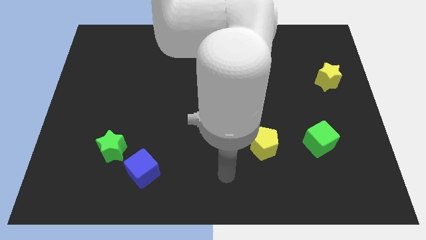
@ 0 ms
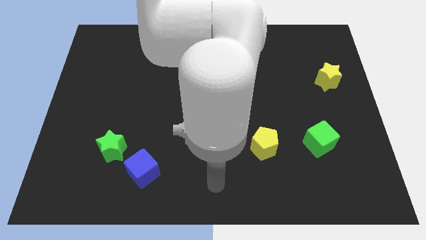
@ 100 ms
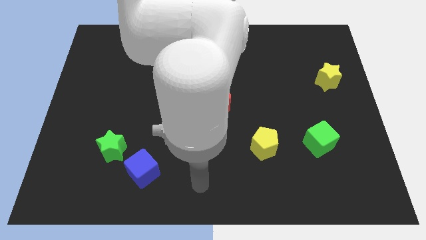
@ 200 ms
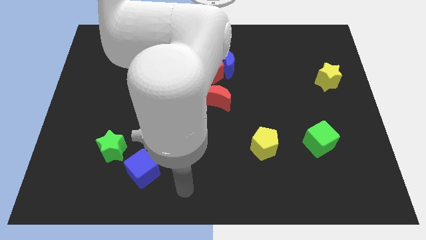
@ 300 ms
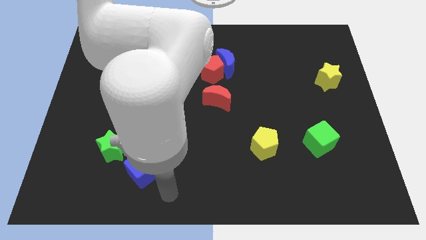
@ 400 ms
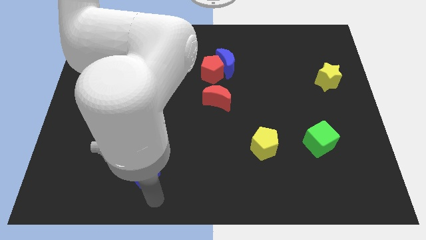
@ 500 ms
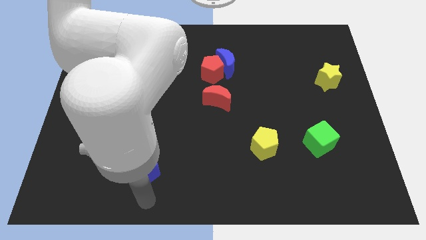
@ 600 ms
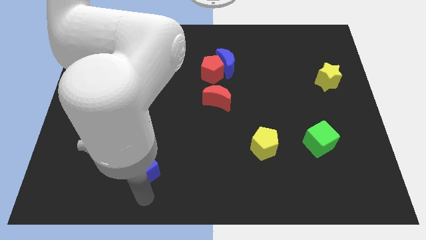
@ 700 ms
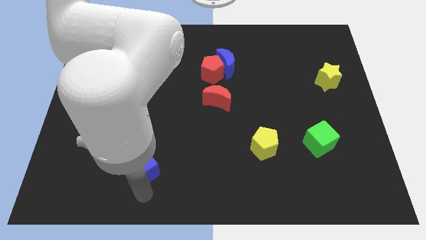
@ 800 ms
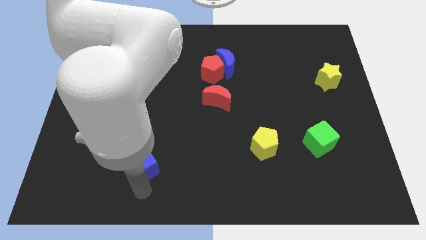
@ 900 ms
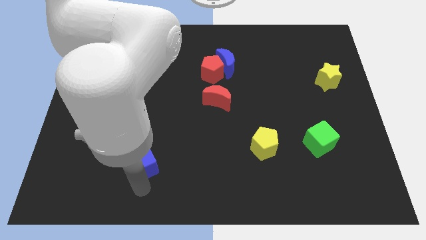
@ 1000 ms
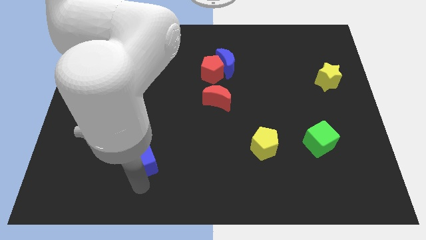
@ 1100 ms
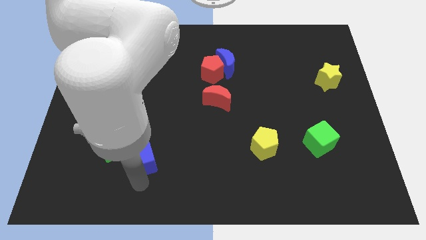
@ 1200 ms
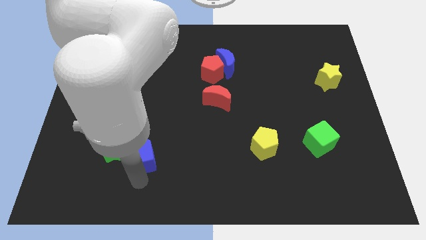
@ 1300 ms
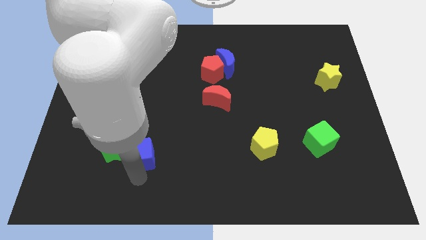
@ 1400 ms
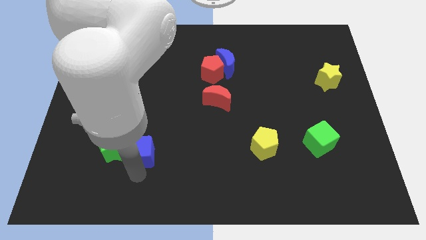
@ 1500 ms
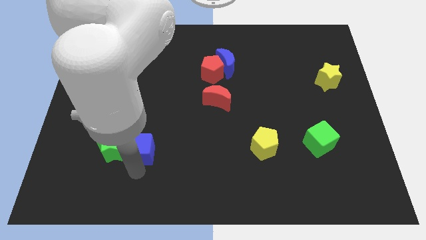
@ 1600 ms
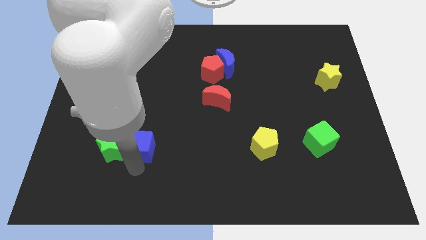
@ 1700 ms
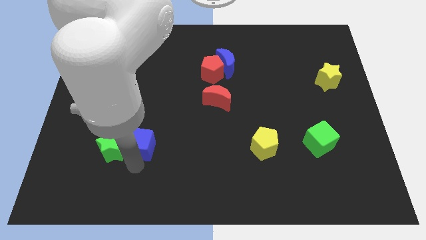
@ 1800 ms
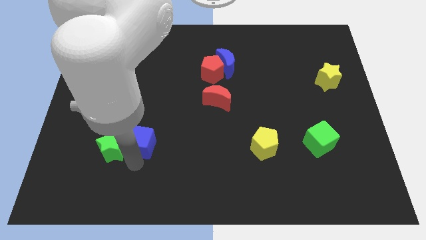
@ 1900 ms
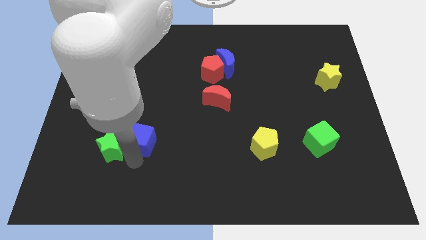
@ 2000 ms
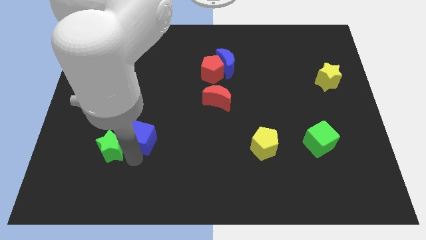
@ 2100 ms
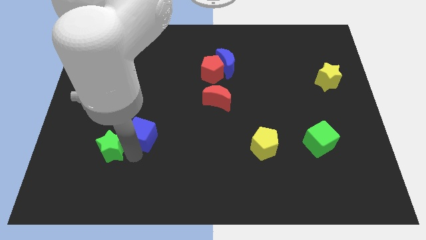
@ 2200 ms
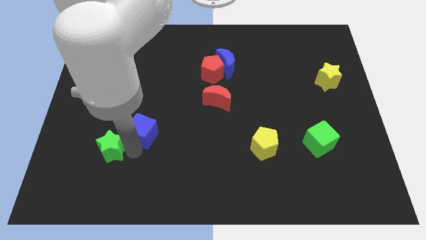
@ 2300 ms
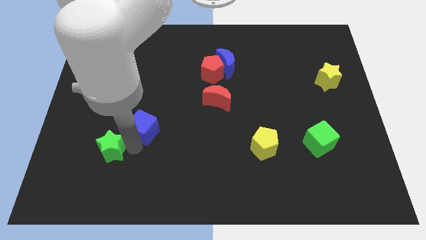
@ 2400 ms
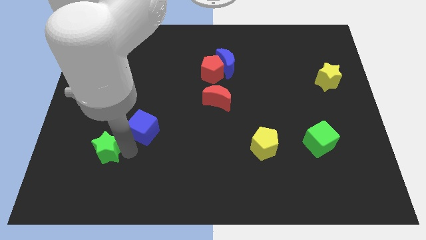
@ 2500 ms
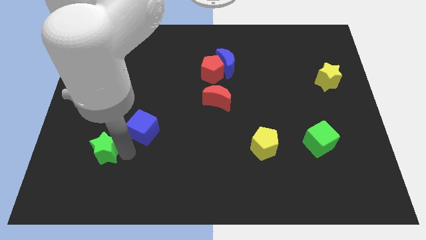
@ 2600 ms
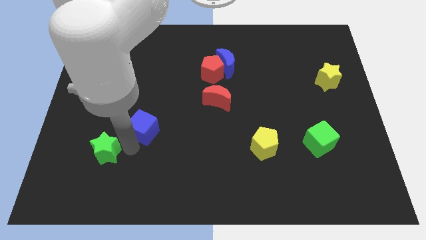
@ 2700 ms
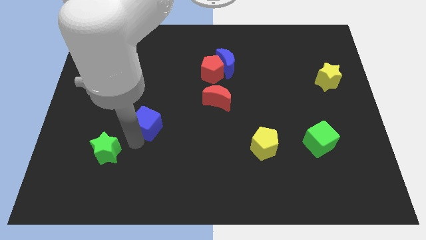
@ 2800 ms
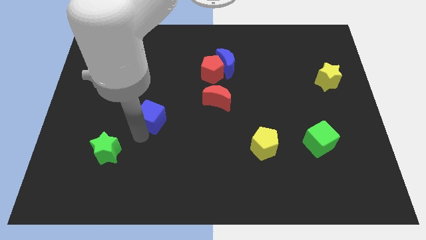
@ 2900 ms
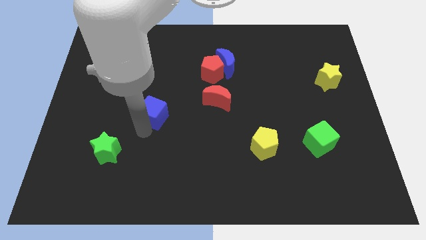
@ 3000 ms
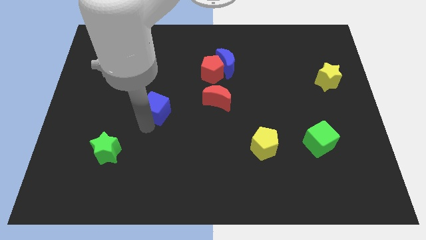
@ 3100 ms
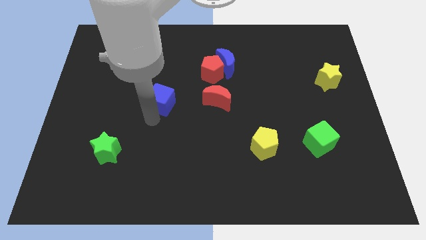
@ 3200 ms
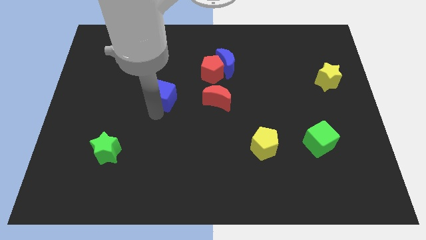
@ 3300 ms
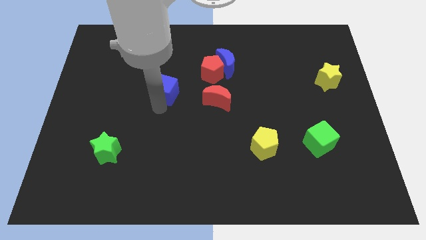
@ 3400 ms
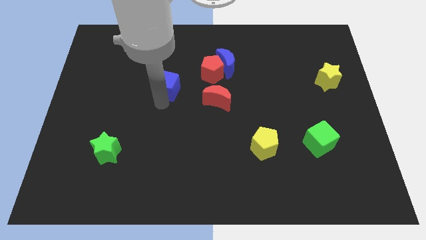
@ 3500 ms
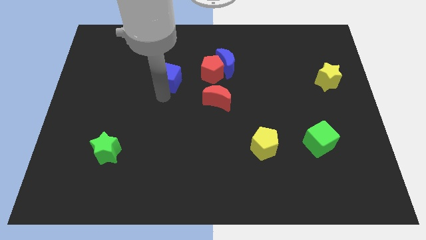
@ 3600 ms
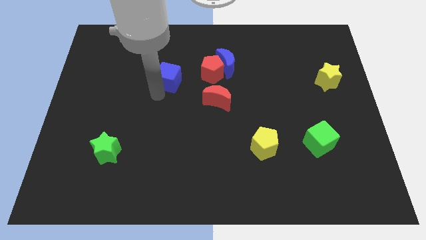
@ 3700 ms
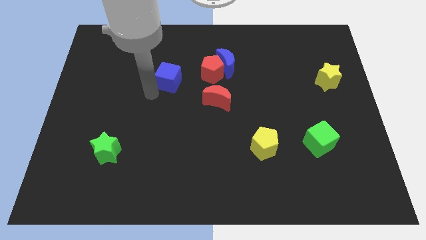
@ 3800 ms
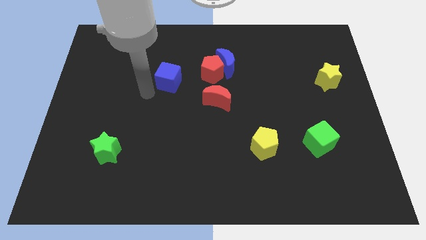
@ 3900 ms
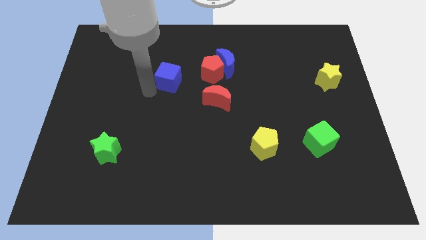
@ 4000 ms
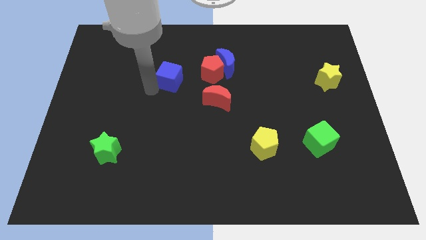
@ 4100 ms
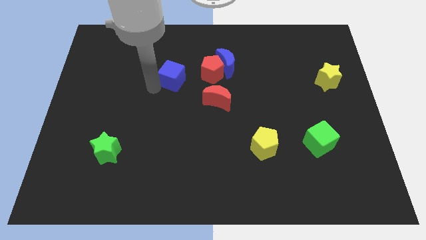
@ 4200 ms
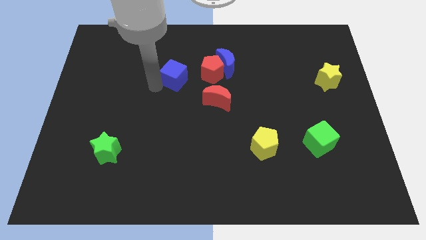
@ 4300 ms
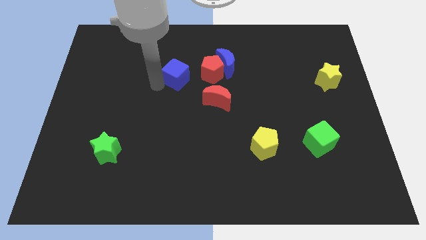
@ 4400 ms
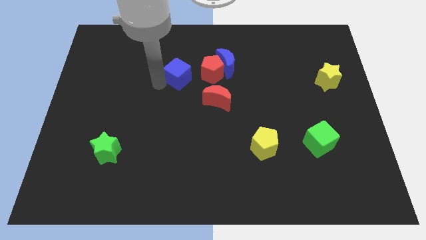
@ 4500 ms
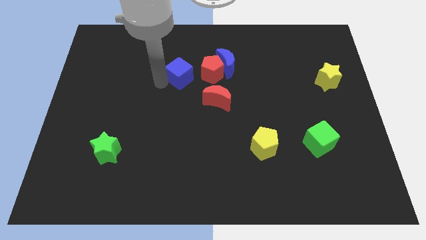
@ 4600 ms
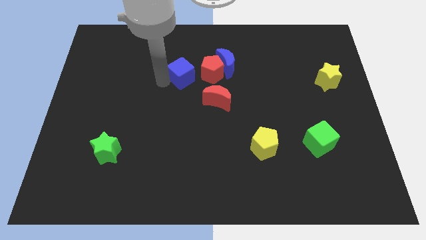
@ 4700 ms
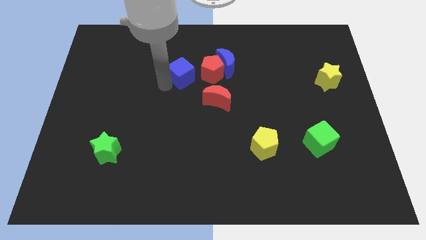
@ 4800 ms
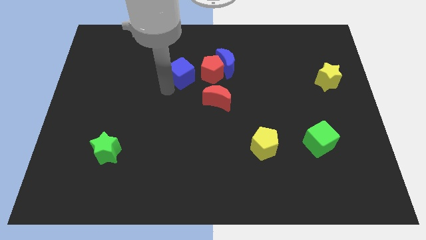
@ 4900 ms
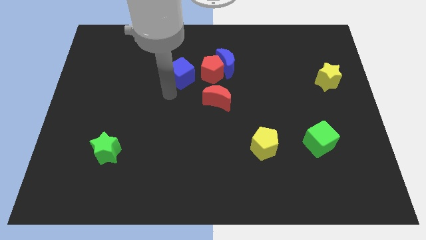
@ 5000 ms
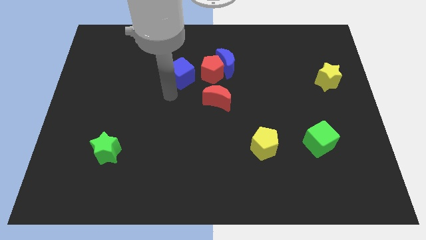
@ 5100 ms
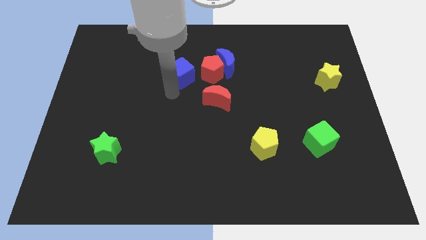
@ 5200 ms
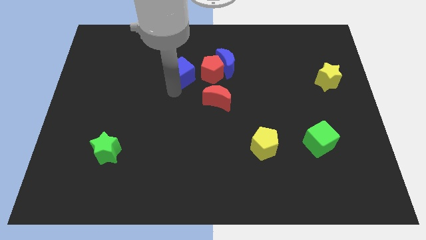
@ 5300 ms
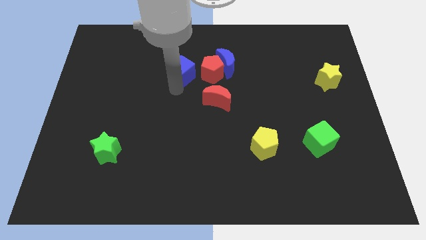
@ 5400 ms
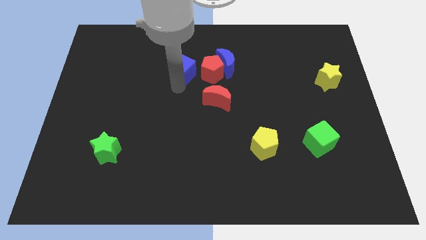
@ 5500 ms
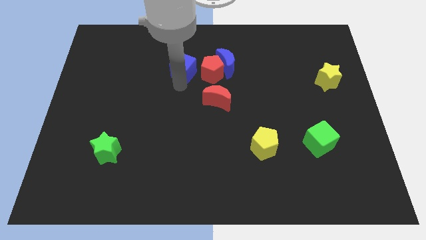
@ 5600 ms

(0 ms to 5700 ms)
push the blue cube to the top left side of the red pentagon

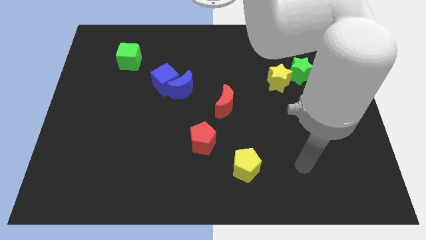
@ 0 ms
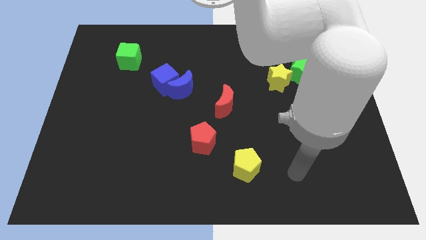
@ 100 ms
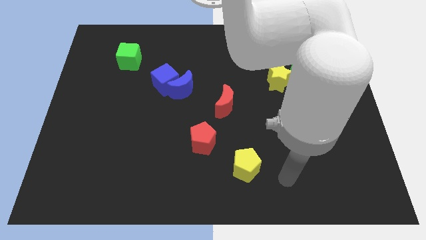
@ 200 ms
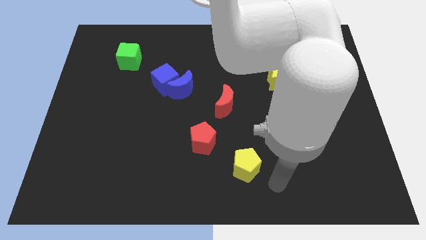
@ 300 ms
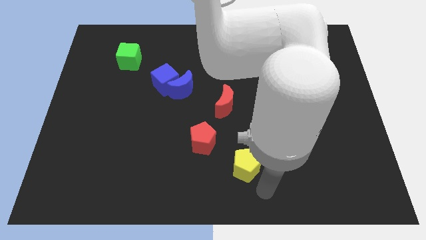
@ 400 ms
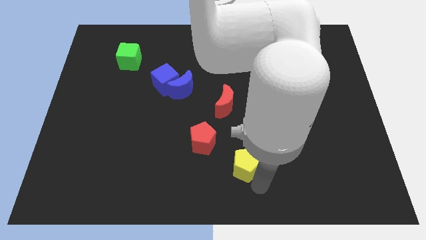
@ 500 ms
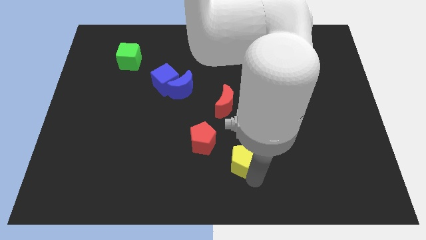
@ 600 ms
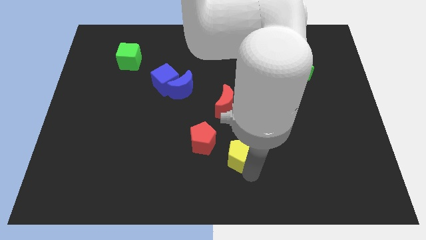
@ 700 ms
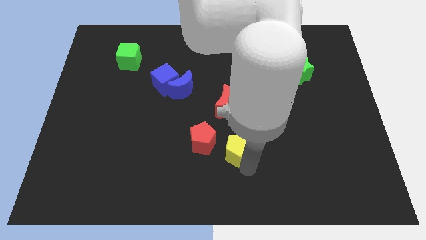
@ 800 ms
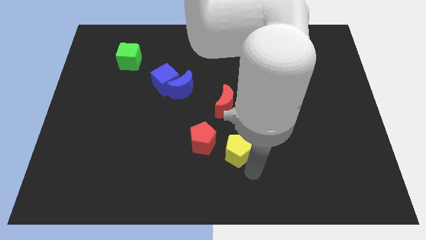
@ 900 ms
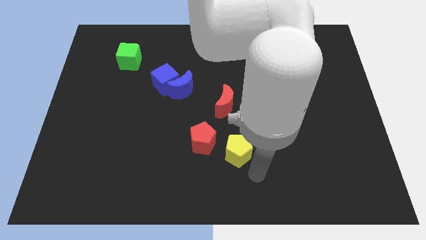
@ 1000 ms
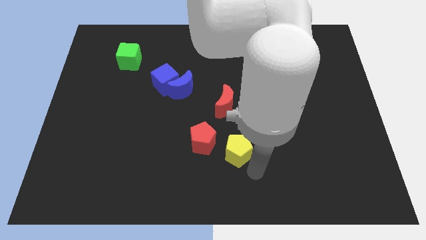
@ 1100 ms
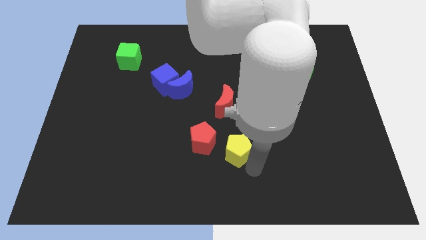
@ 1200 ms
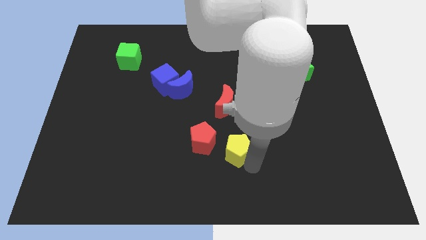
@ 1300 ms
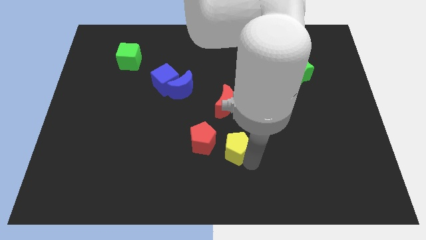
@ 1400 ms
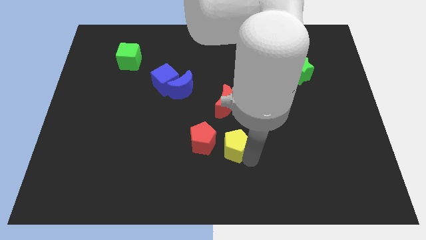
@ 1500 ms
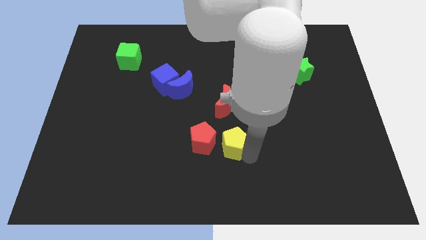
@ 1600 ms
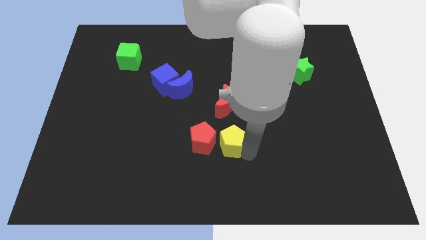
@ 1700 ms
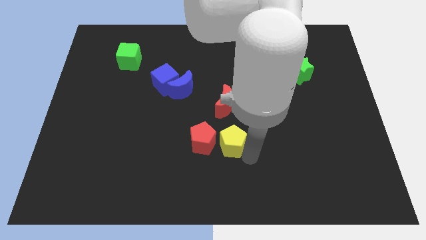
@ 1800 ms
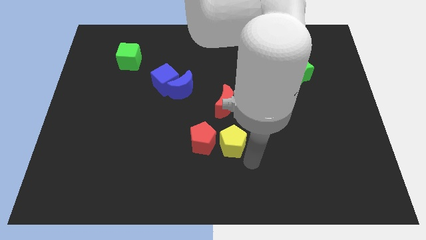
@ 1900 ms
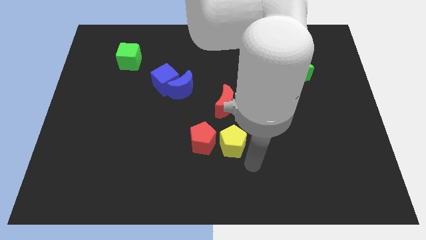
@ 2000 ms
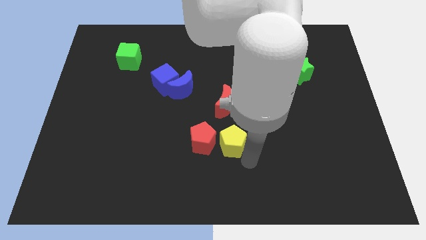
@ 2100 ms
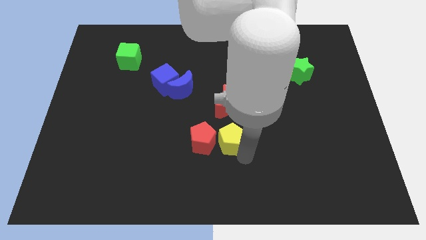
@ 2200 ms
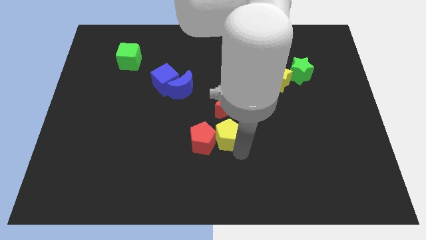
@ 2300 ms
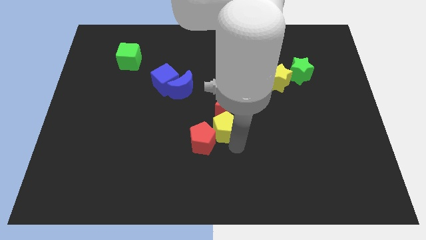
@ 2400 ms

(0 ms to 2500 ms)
move the yellow pentagon to the bottom left side of the red moon
